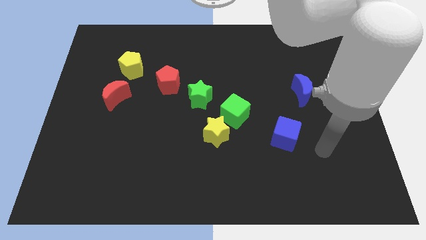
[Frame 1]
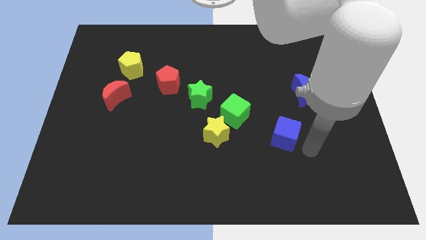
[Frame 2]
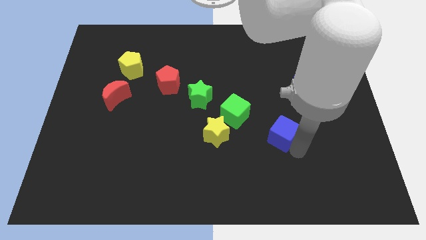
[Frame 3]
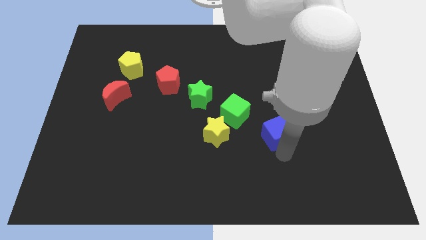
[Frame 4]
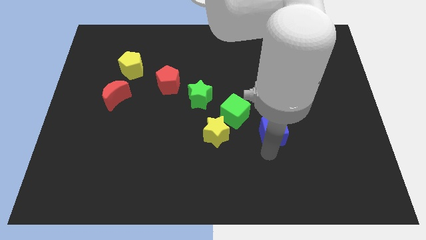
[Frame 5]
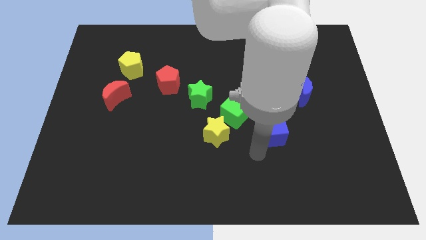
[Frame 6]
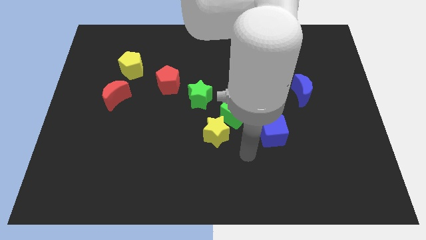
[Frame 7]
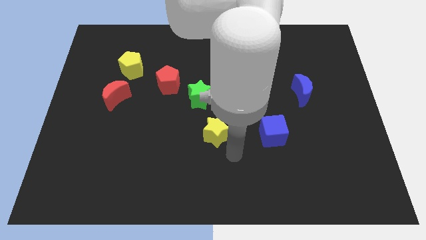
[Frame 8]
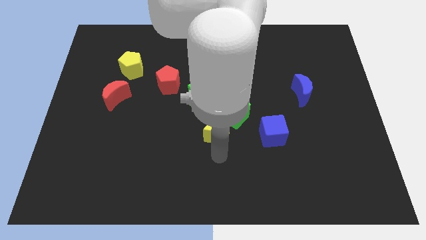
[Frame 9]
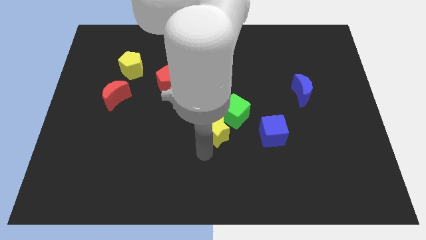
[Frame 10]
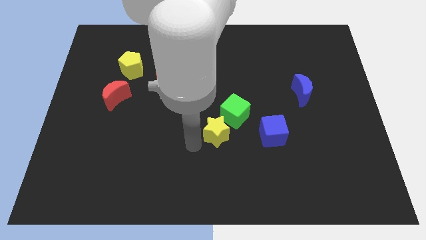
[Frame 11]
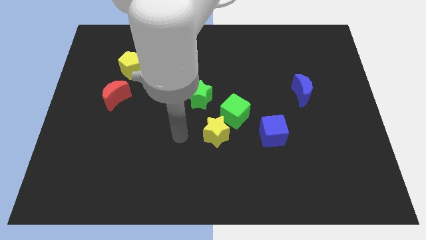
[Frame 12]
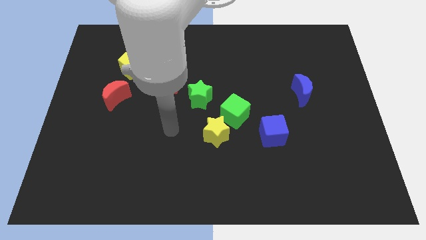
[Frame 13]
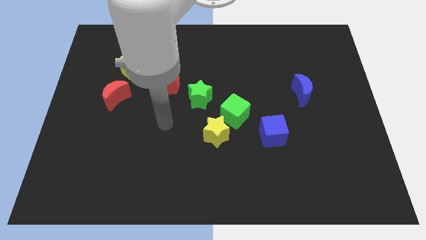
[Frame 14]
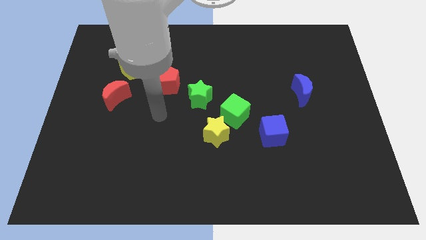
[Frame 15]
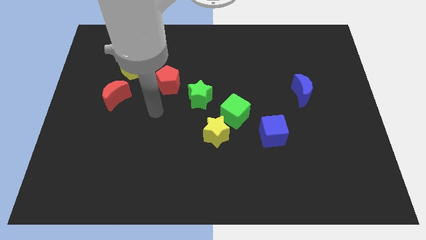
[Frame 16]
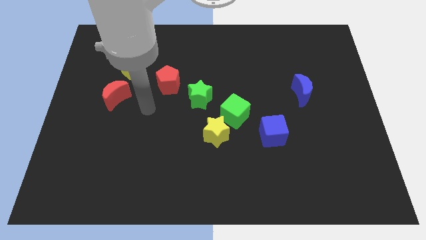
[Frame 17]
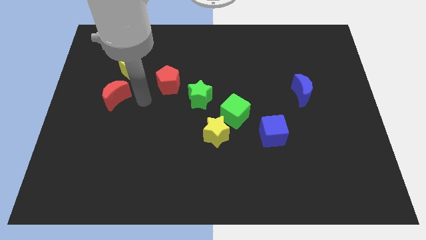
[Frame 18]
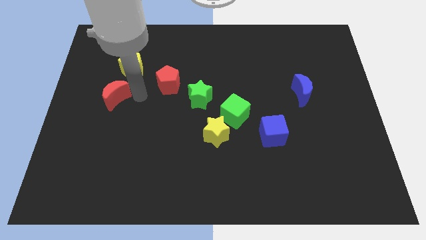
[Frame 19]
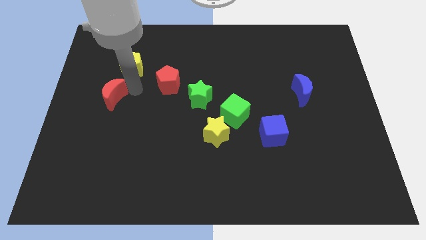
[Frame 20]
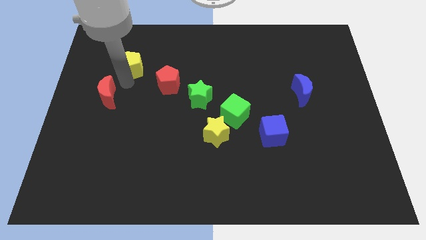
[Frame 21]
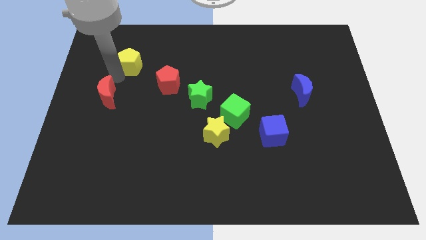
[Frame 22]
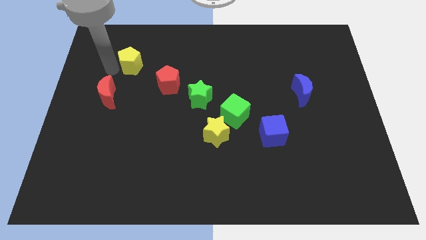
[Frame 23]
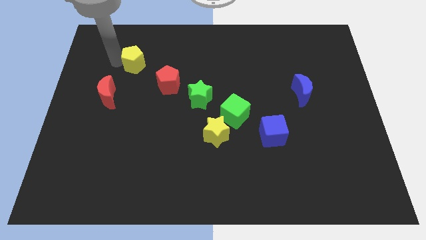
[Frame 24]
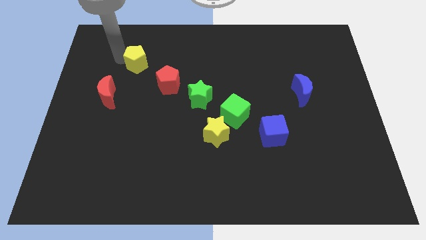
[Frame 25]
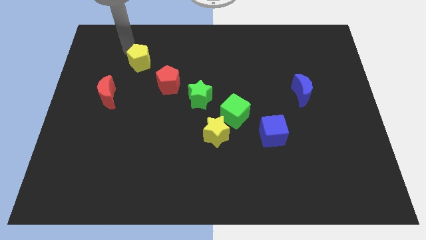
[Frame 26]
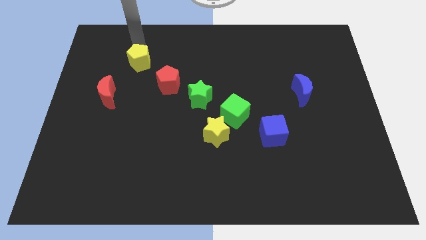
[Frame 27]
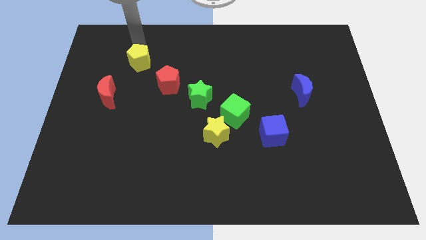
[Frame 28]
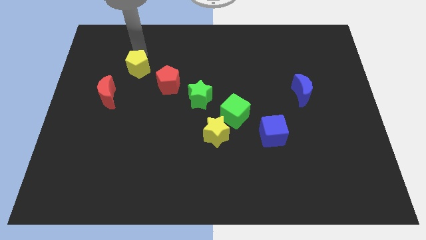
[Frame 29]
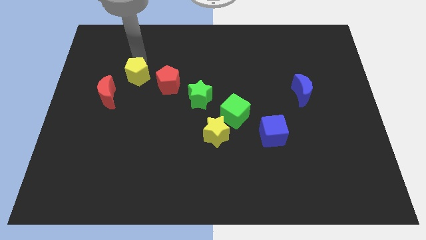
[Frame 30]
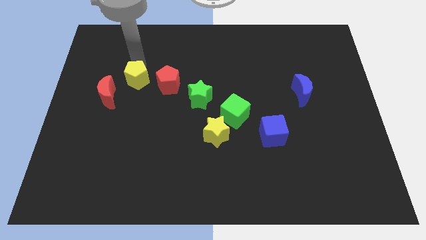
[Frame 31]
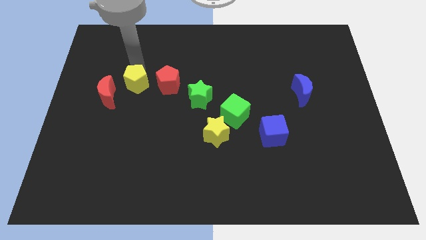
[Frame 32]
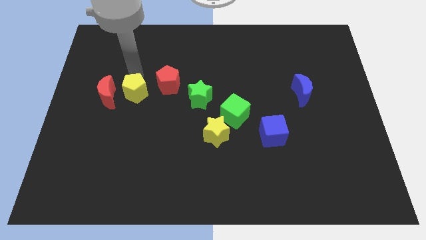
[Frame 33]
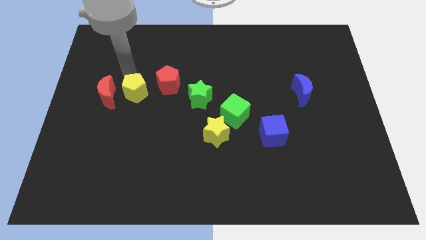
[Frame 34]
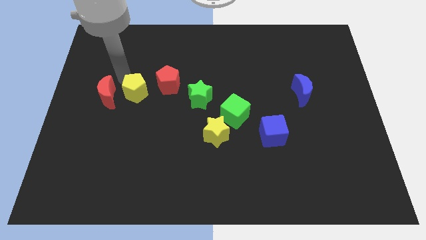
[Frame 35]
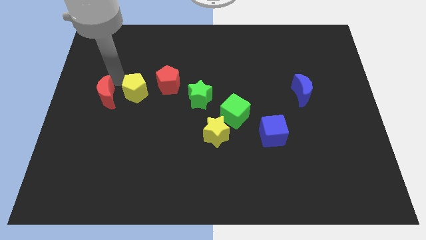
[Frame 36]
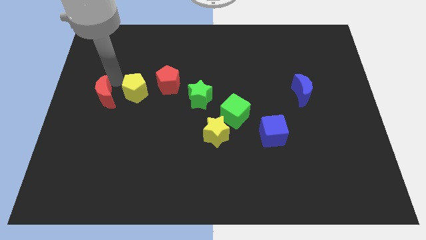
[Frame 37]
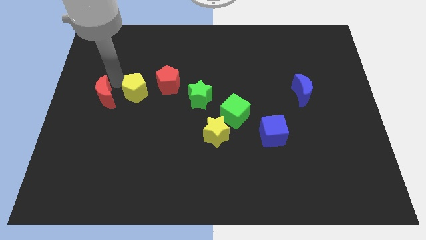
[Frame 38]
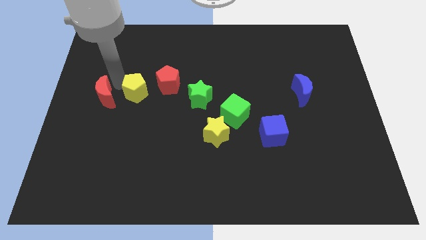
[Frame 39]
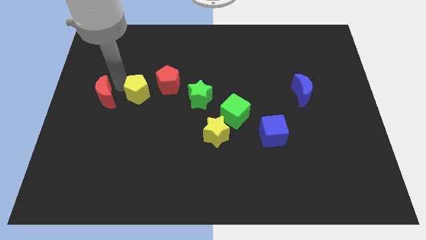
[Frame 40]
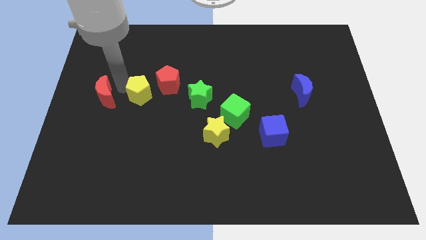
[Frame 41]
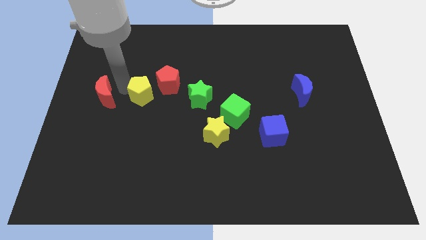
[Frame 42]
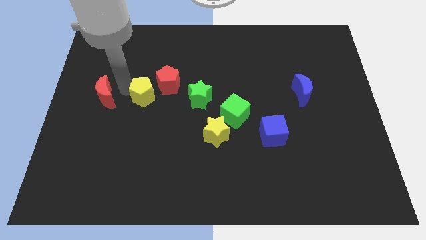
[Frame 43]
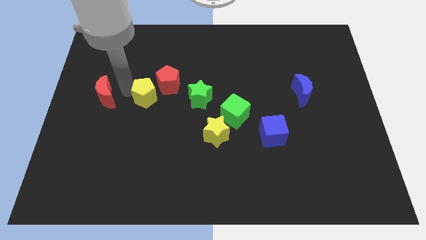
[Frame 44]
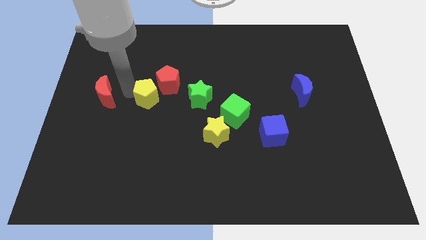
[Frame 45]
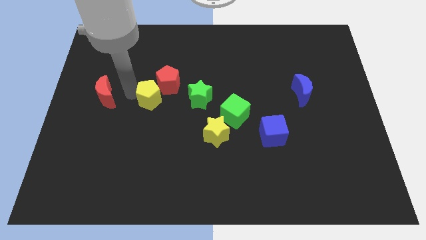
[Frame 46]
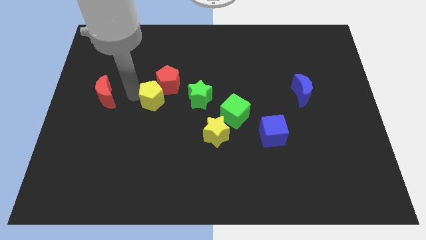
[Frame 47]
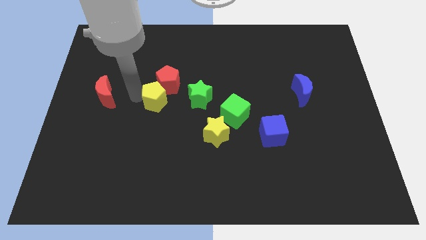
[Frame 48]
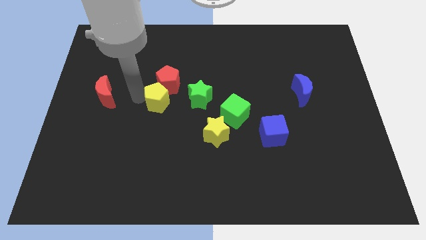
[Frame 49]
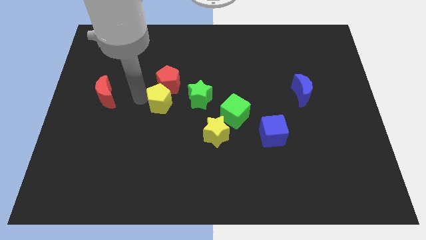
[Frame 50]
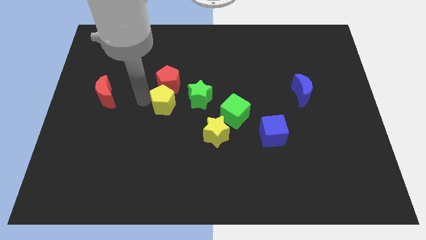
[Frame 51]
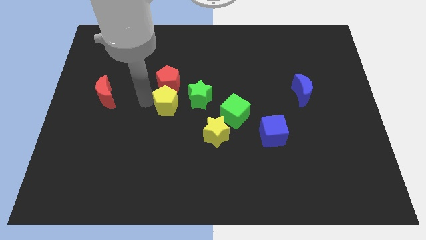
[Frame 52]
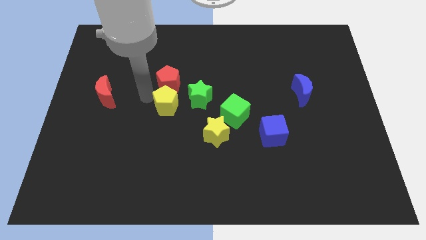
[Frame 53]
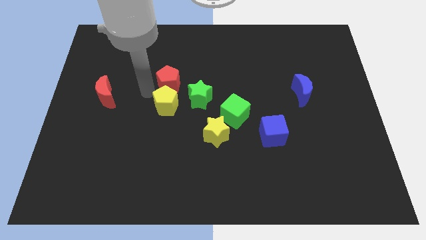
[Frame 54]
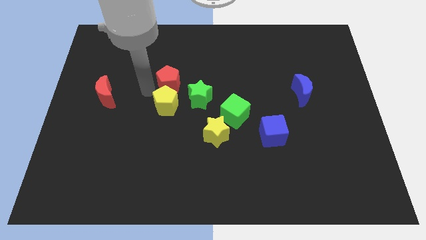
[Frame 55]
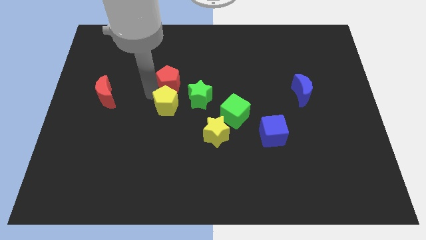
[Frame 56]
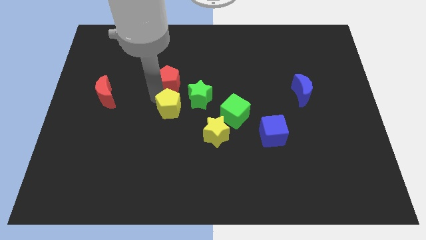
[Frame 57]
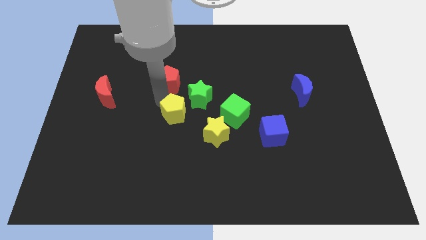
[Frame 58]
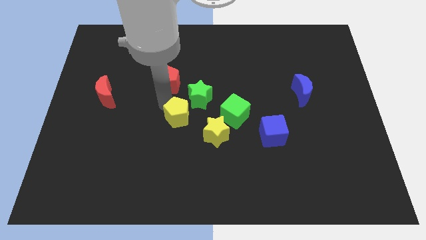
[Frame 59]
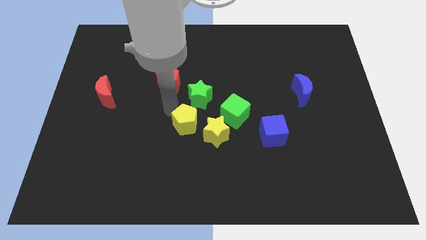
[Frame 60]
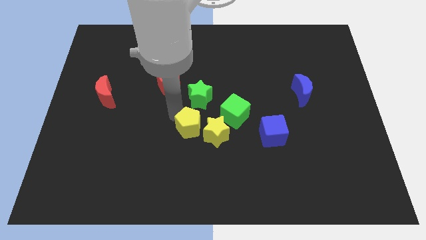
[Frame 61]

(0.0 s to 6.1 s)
slide the yellow pentagon to the yellow star
